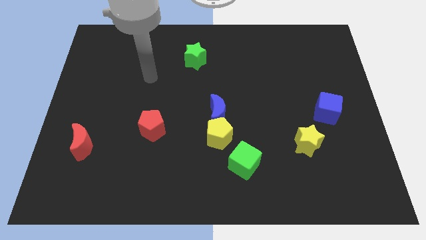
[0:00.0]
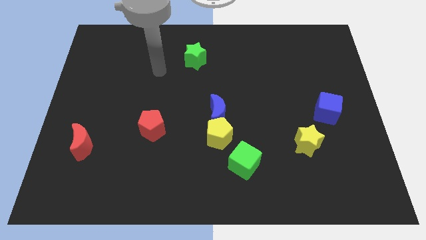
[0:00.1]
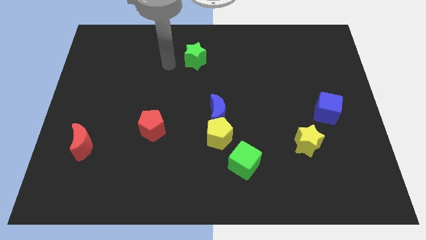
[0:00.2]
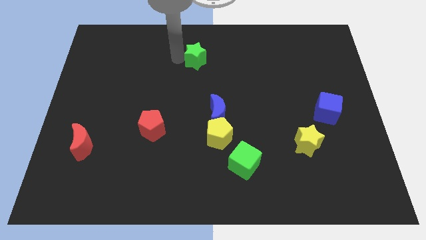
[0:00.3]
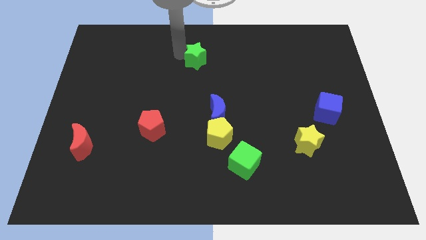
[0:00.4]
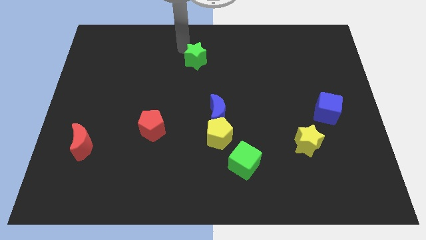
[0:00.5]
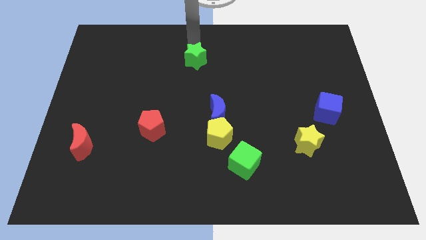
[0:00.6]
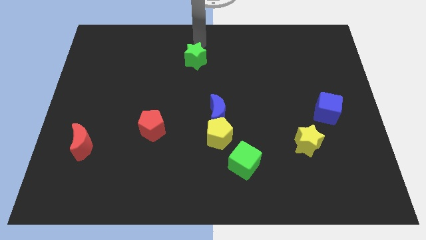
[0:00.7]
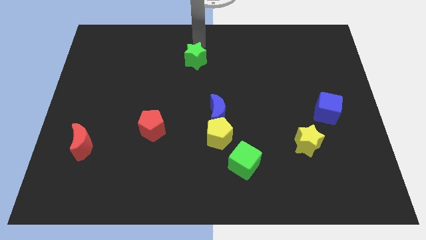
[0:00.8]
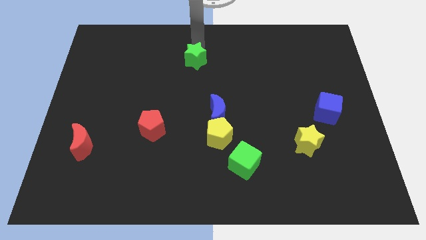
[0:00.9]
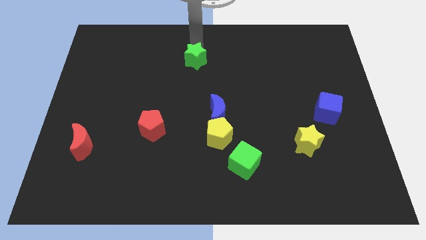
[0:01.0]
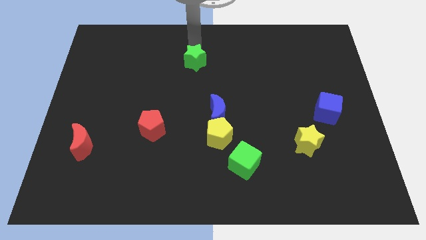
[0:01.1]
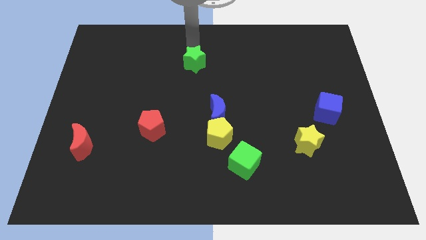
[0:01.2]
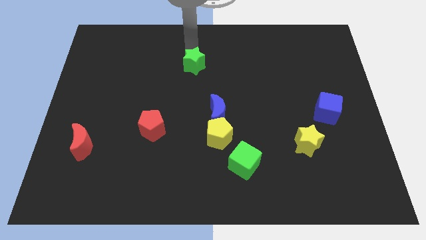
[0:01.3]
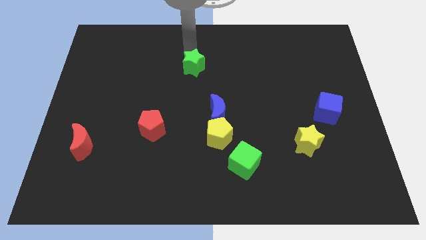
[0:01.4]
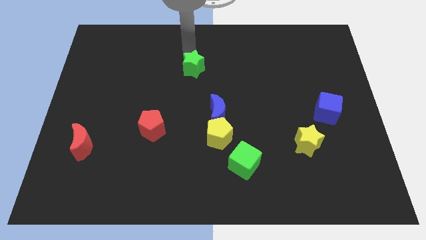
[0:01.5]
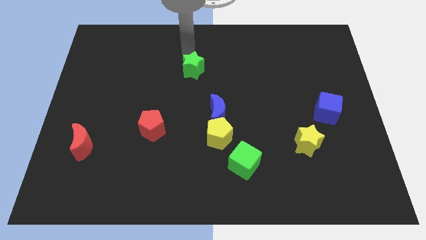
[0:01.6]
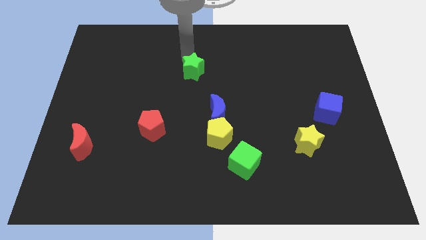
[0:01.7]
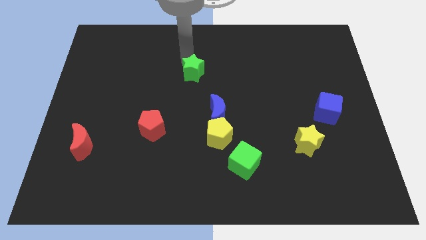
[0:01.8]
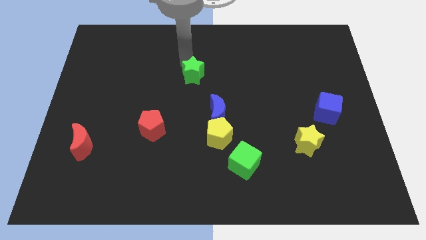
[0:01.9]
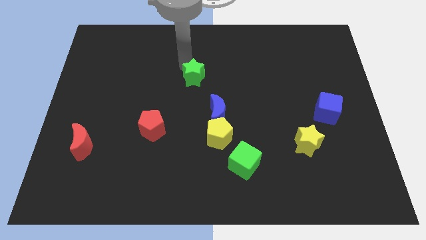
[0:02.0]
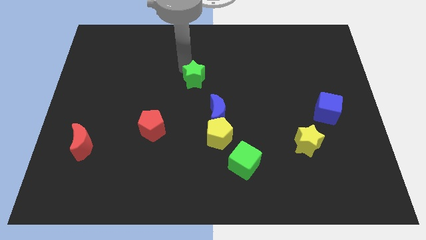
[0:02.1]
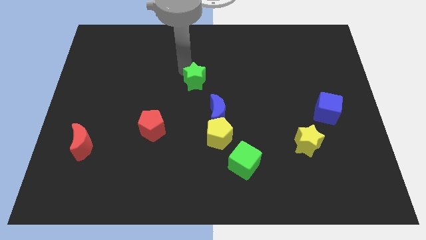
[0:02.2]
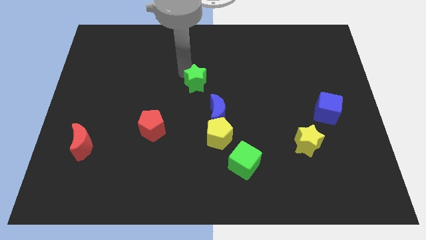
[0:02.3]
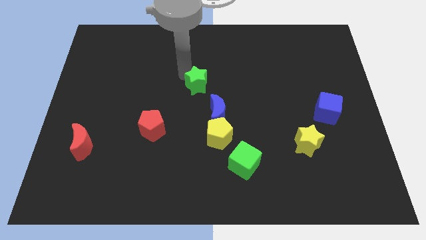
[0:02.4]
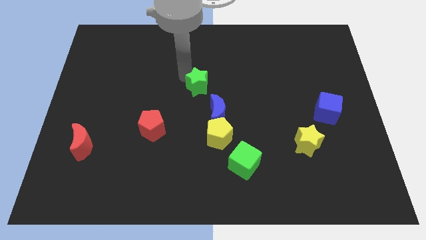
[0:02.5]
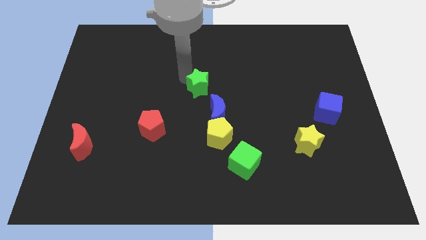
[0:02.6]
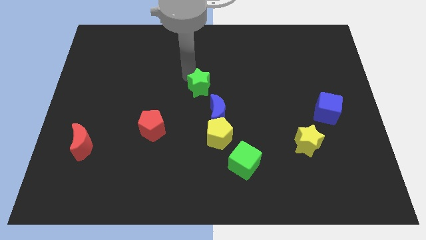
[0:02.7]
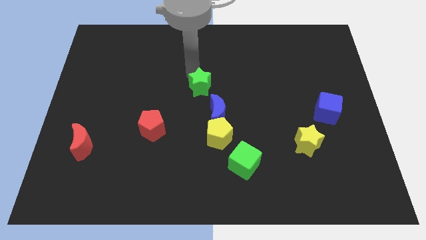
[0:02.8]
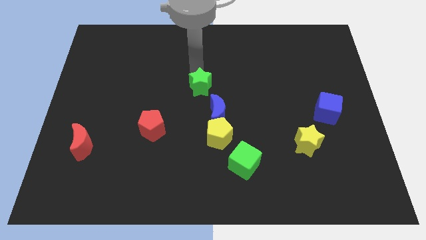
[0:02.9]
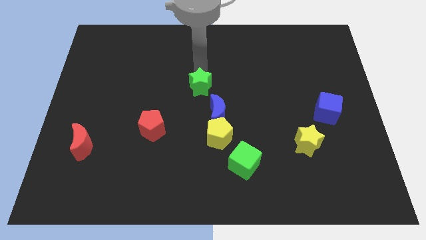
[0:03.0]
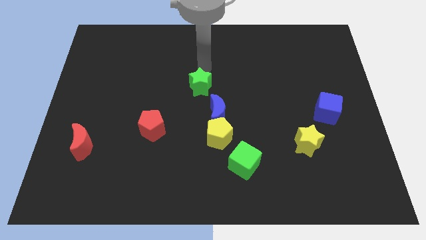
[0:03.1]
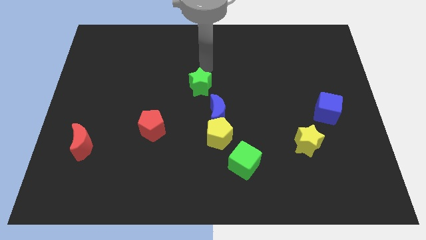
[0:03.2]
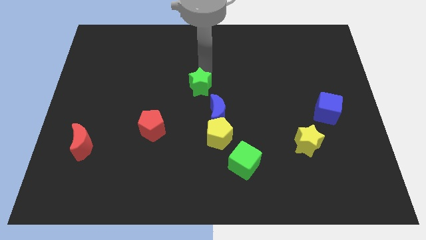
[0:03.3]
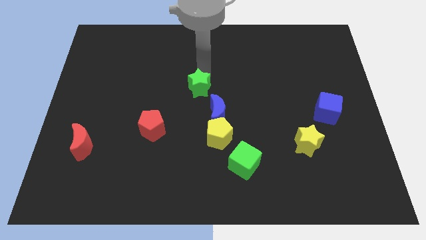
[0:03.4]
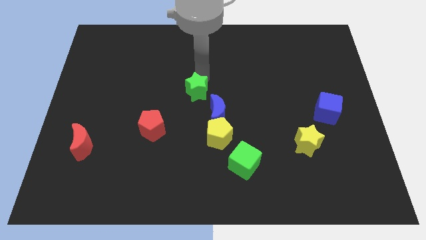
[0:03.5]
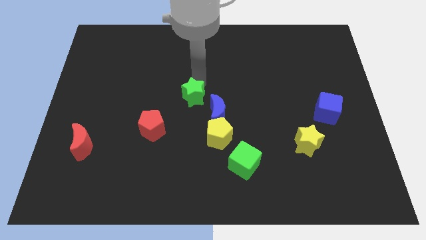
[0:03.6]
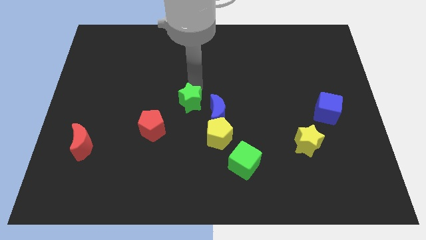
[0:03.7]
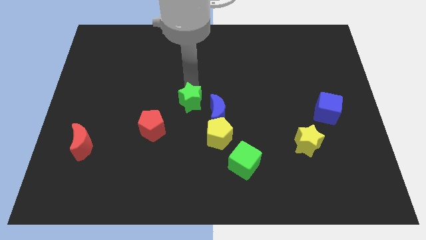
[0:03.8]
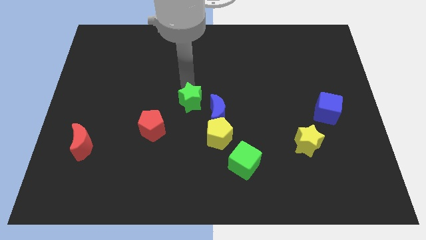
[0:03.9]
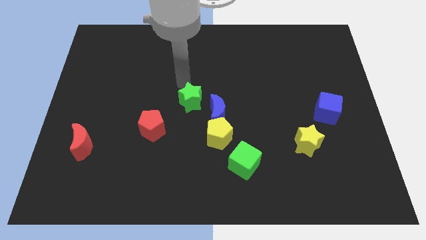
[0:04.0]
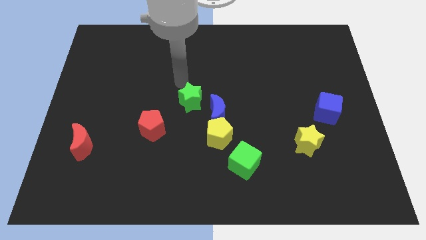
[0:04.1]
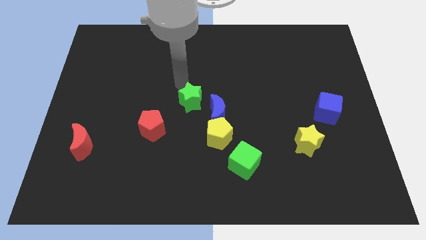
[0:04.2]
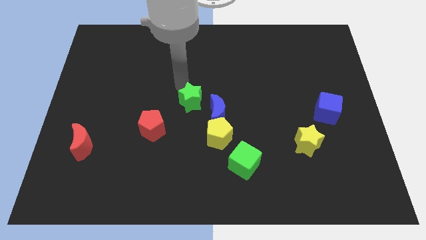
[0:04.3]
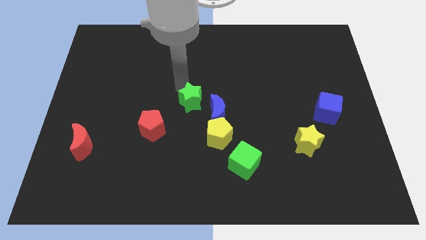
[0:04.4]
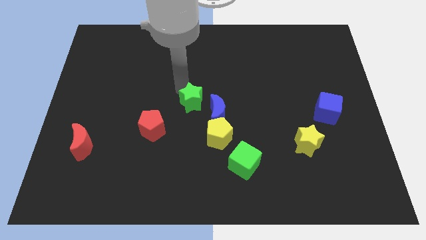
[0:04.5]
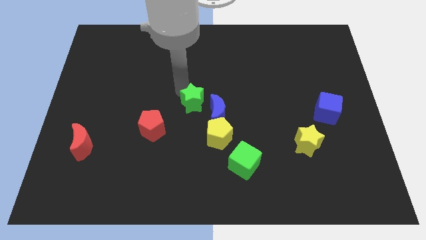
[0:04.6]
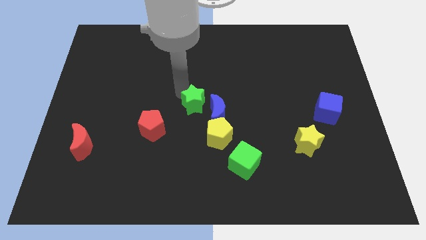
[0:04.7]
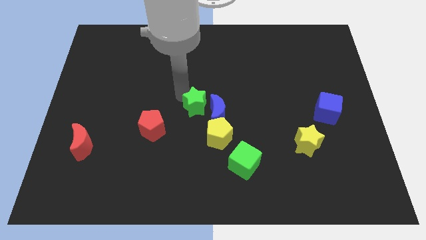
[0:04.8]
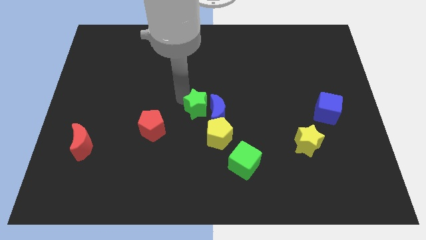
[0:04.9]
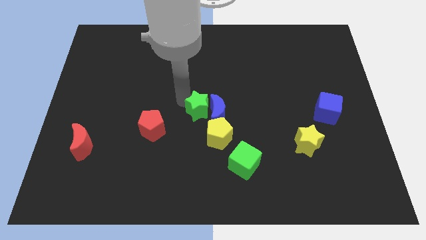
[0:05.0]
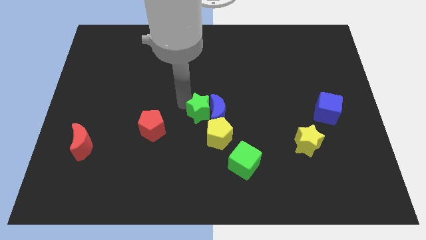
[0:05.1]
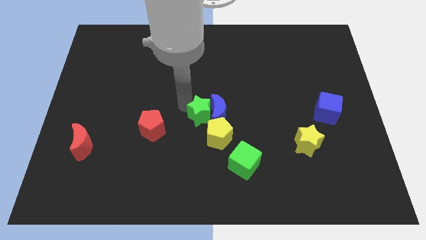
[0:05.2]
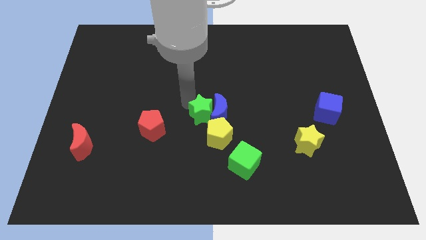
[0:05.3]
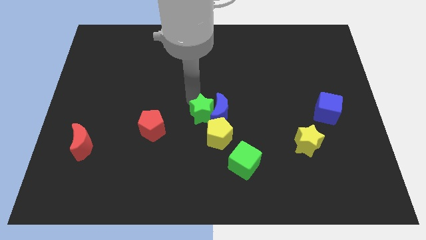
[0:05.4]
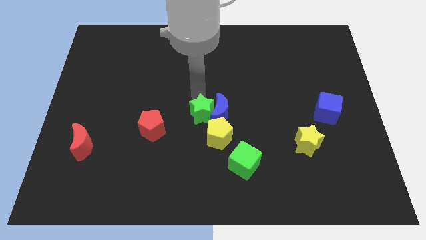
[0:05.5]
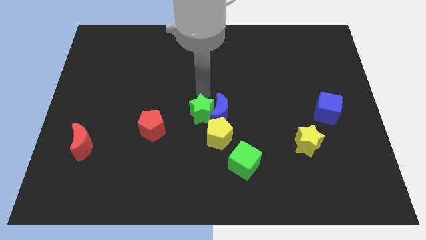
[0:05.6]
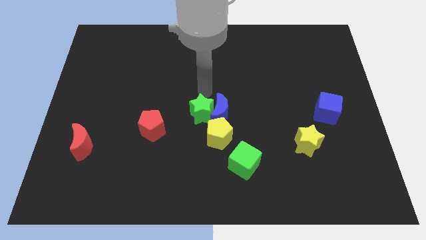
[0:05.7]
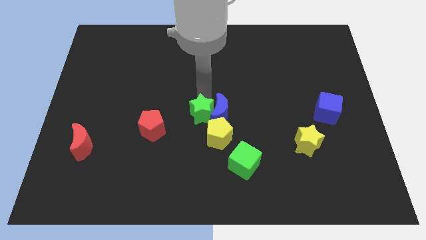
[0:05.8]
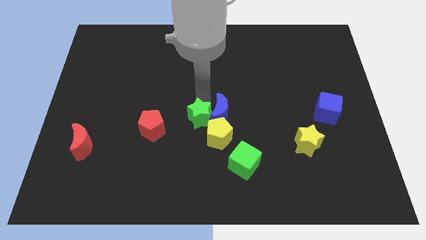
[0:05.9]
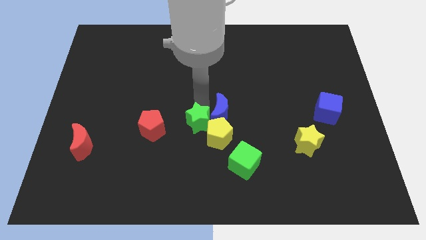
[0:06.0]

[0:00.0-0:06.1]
slide the green star down

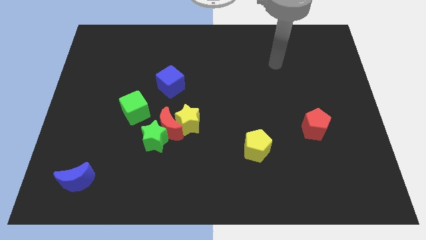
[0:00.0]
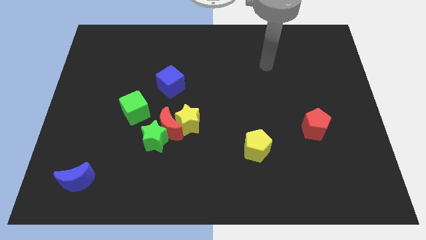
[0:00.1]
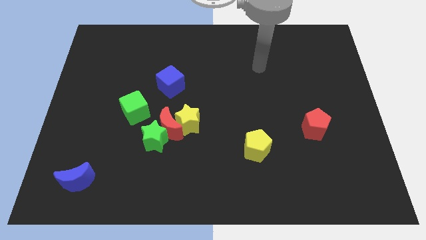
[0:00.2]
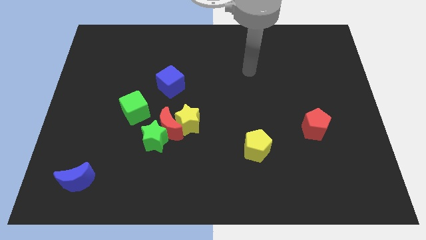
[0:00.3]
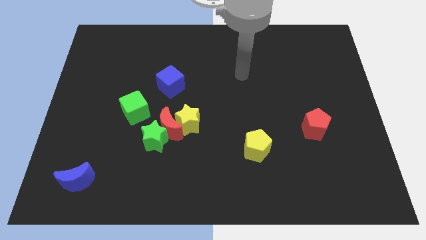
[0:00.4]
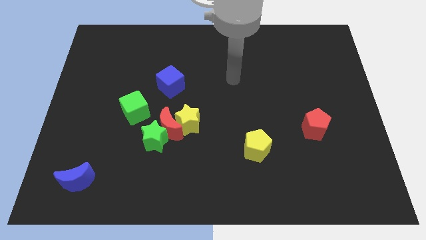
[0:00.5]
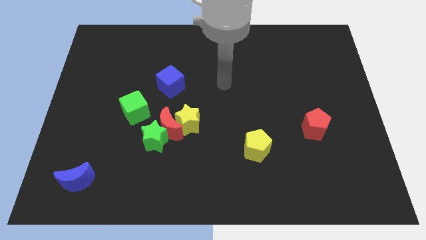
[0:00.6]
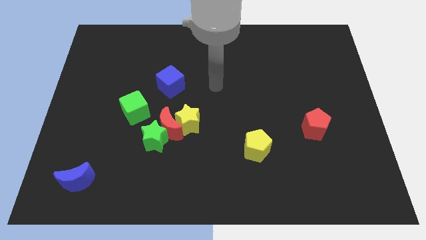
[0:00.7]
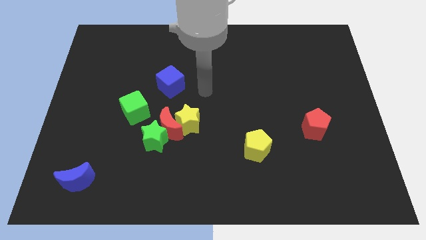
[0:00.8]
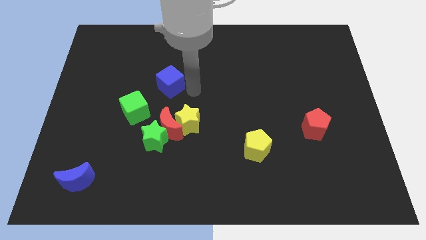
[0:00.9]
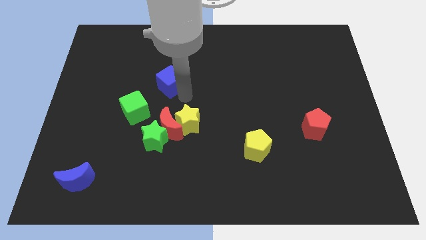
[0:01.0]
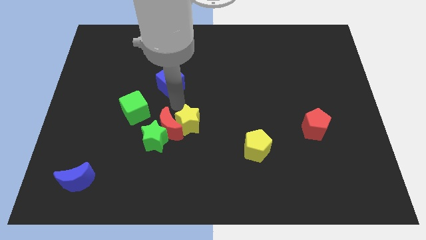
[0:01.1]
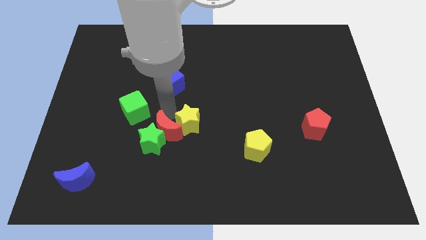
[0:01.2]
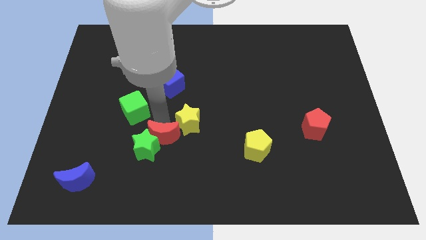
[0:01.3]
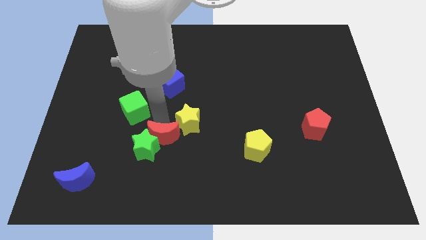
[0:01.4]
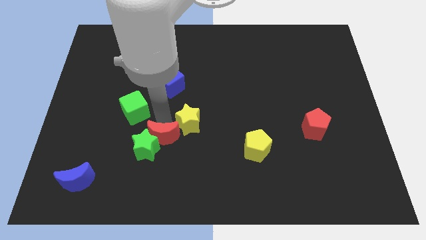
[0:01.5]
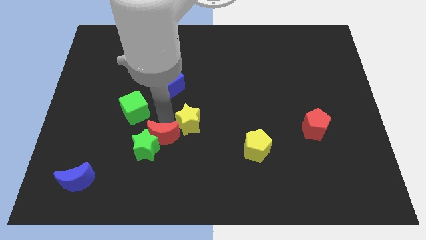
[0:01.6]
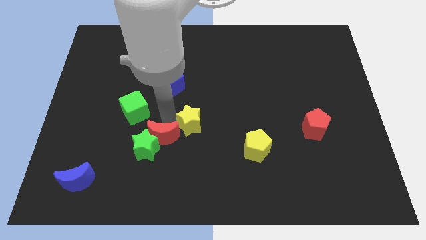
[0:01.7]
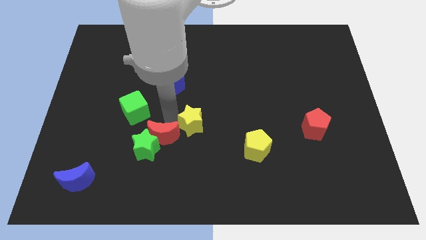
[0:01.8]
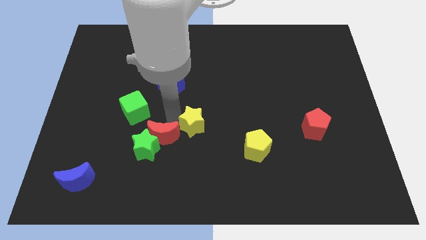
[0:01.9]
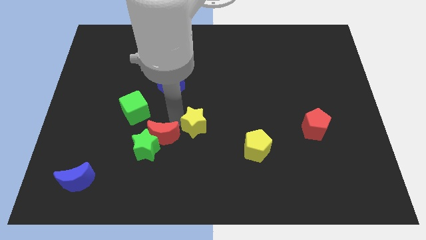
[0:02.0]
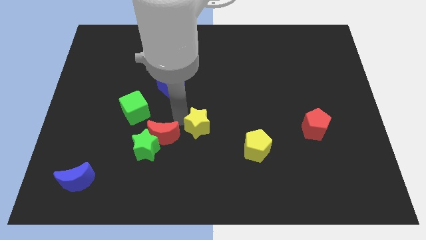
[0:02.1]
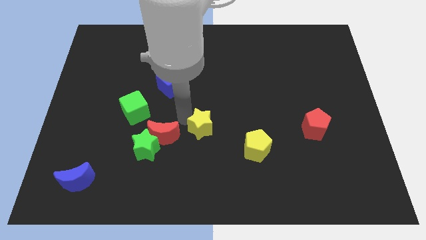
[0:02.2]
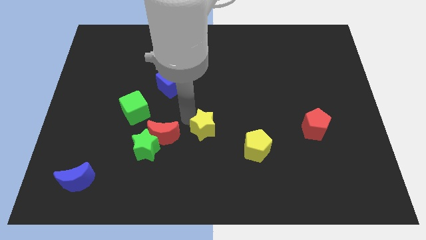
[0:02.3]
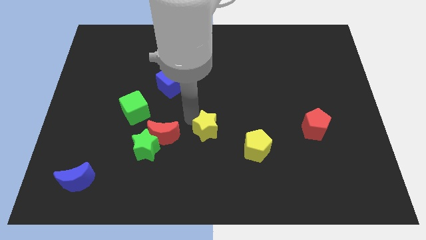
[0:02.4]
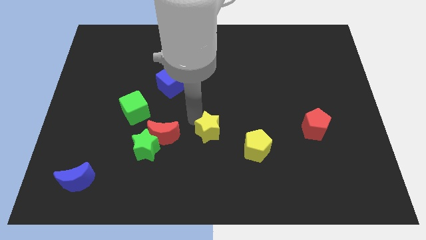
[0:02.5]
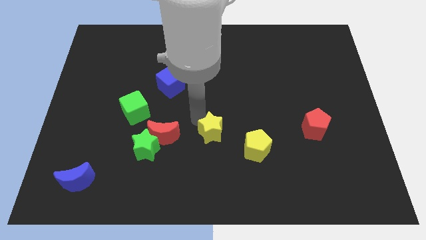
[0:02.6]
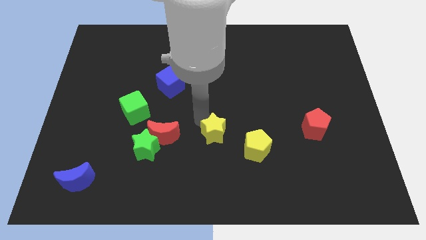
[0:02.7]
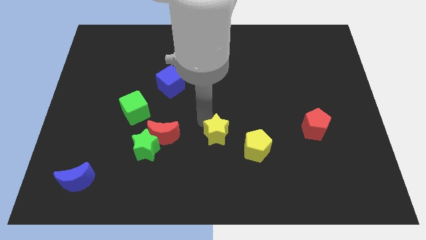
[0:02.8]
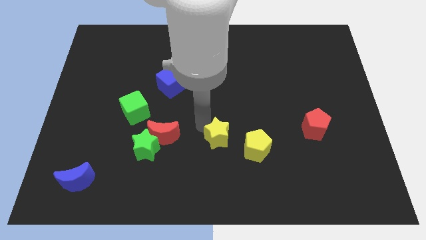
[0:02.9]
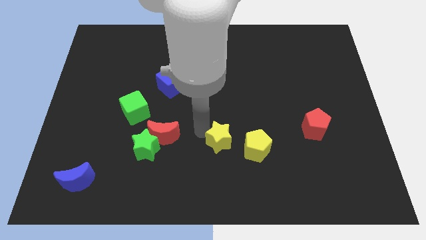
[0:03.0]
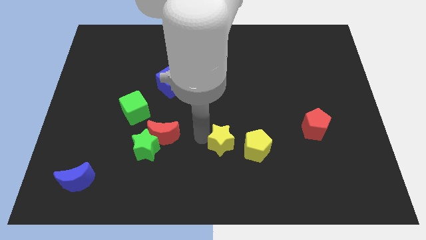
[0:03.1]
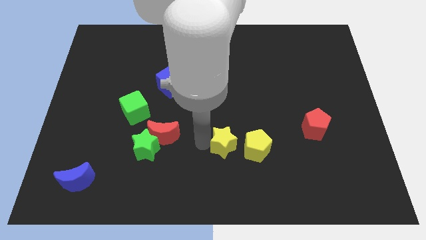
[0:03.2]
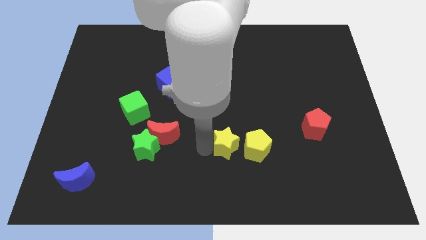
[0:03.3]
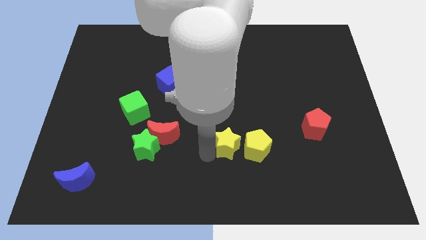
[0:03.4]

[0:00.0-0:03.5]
move the yellow star a bit right
